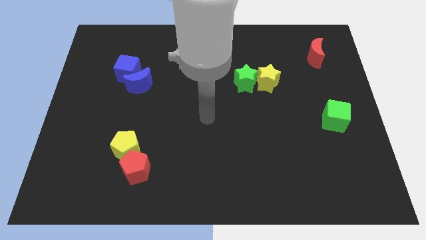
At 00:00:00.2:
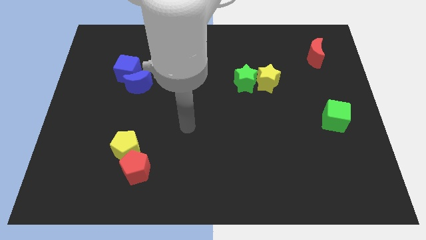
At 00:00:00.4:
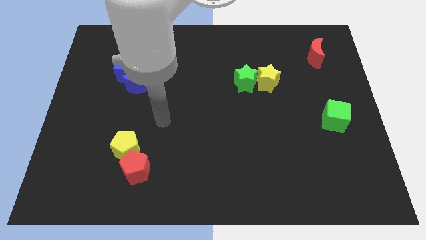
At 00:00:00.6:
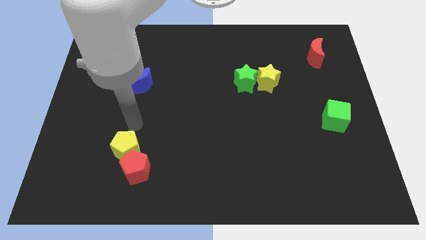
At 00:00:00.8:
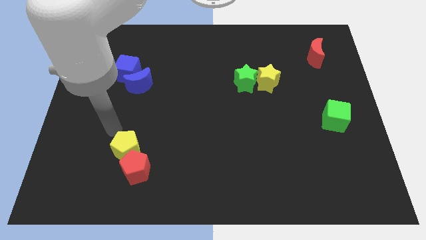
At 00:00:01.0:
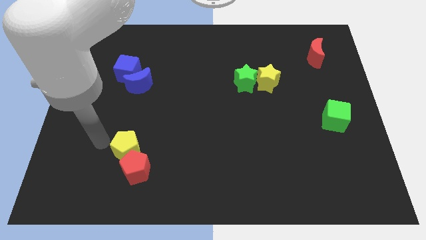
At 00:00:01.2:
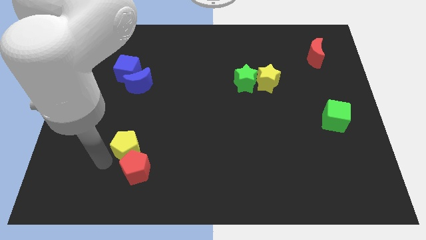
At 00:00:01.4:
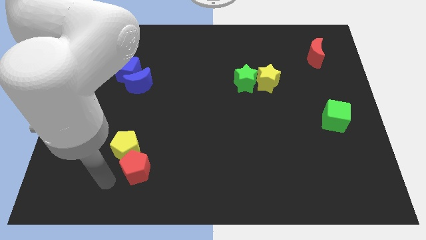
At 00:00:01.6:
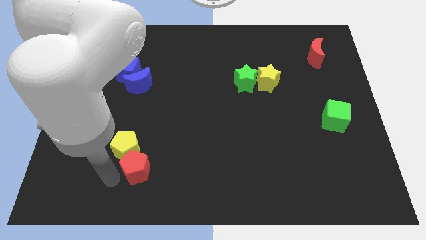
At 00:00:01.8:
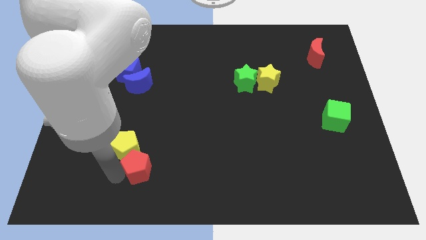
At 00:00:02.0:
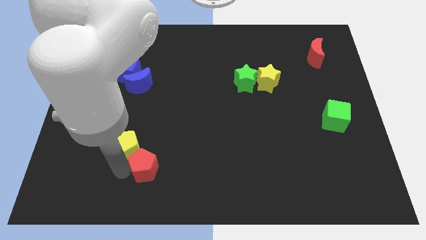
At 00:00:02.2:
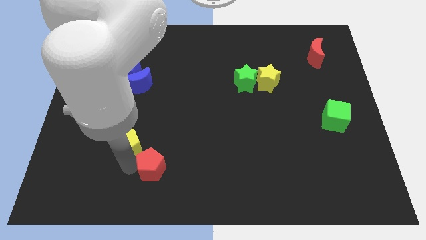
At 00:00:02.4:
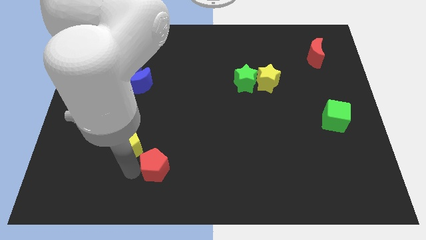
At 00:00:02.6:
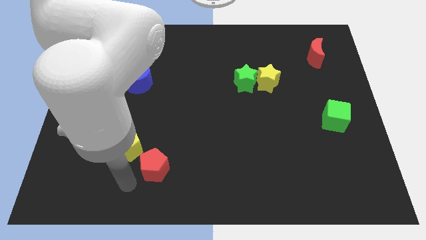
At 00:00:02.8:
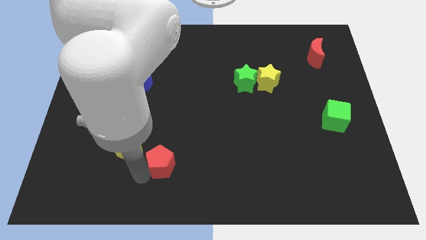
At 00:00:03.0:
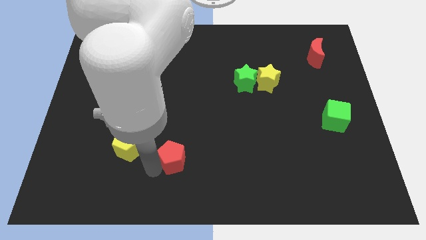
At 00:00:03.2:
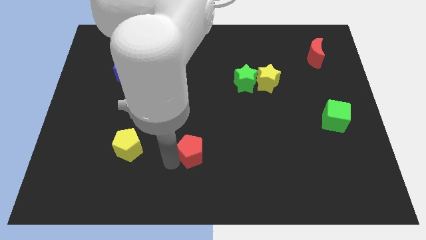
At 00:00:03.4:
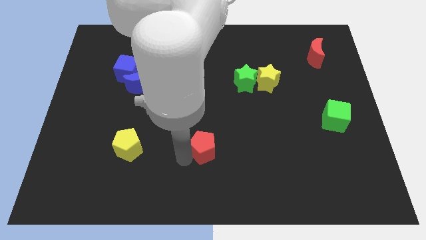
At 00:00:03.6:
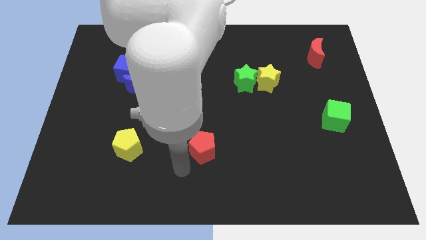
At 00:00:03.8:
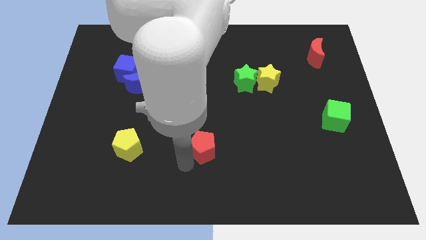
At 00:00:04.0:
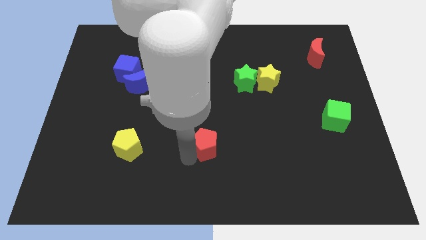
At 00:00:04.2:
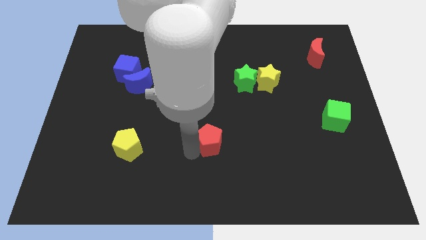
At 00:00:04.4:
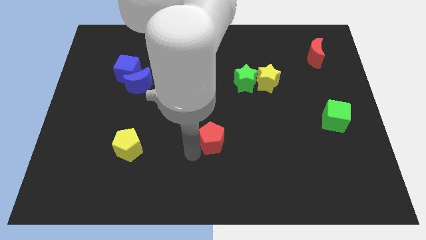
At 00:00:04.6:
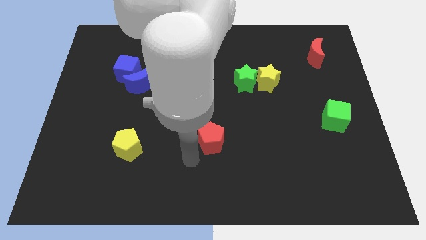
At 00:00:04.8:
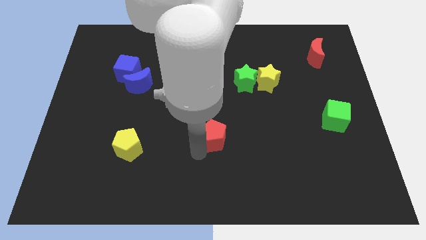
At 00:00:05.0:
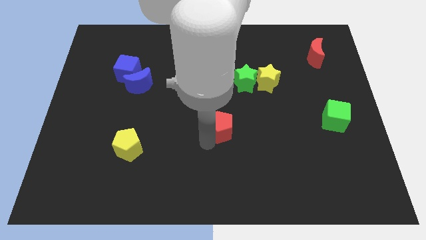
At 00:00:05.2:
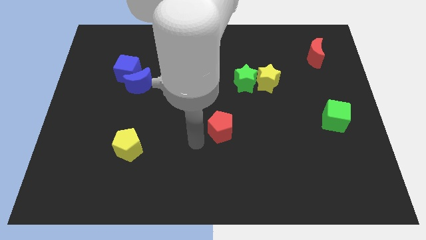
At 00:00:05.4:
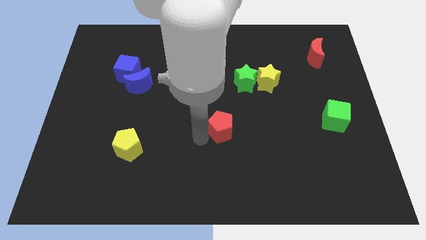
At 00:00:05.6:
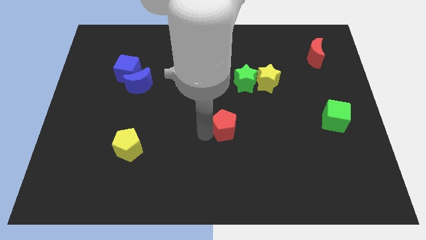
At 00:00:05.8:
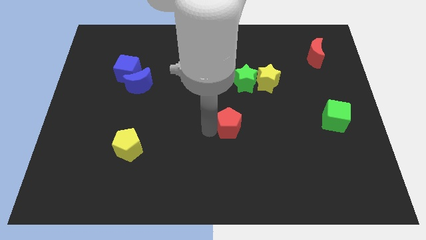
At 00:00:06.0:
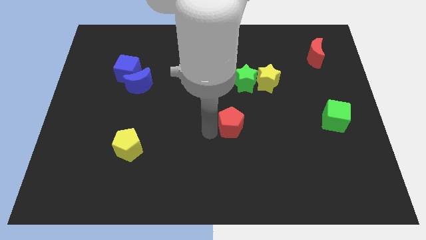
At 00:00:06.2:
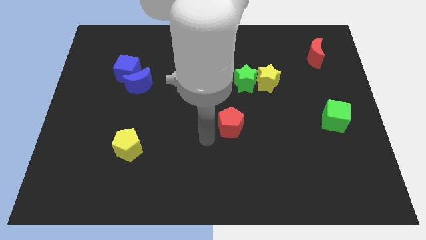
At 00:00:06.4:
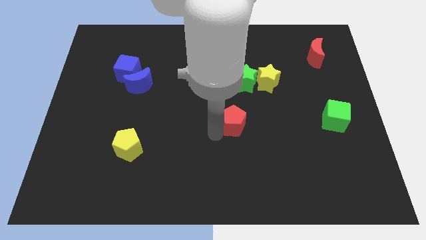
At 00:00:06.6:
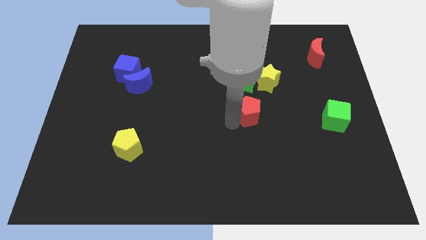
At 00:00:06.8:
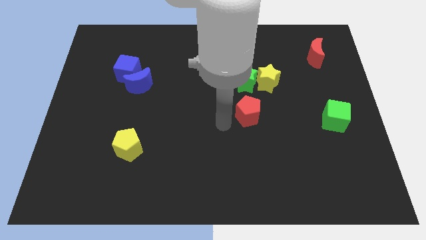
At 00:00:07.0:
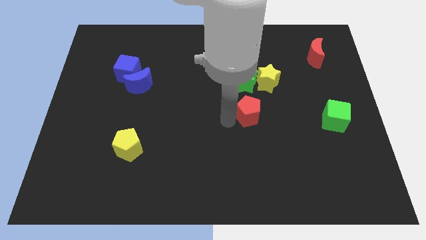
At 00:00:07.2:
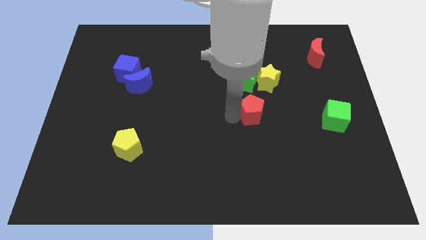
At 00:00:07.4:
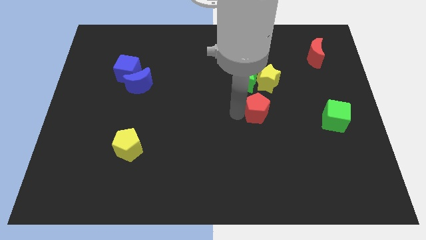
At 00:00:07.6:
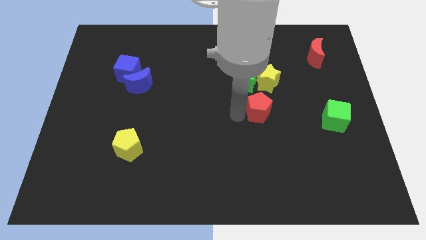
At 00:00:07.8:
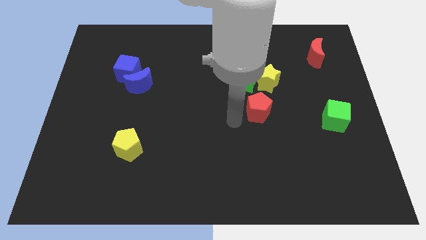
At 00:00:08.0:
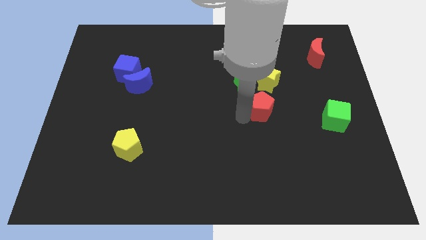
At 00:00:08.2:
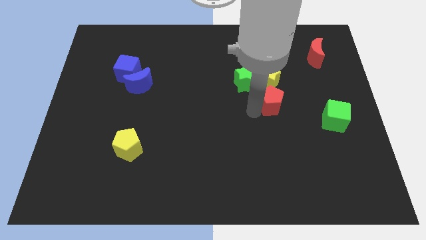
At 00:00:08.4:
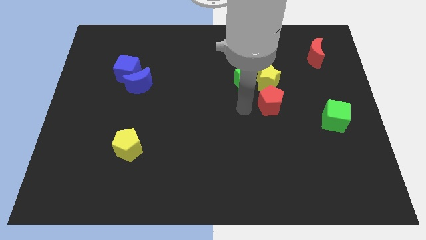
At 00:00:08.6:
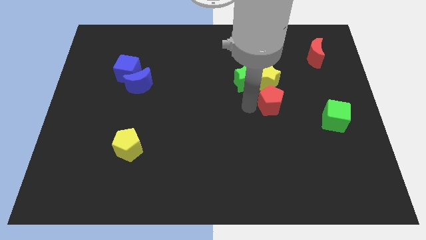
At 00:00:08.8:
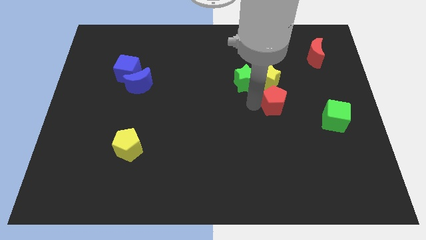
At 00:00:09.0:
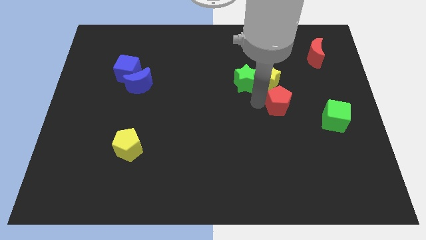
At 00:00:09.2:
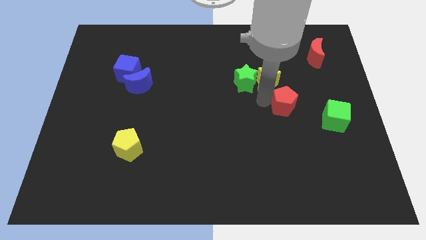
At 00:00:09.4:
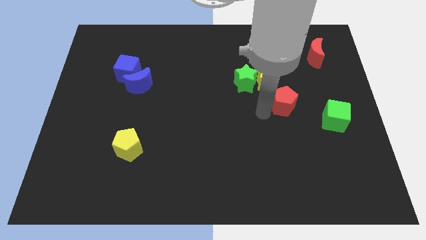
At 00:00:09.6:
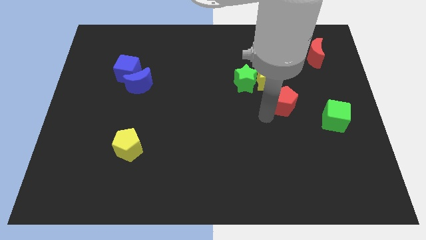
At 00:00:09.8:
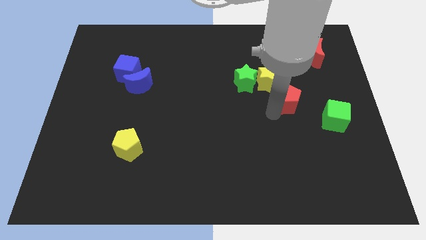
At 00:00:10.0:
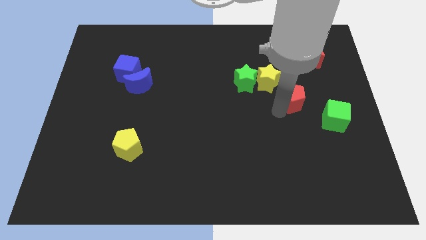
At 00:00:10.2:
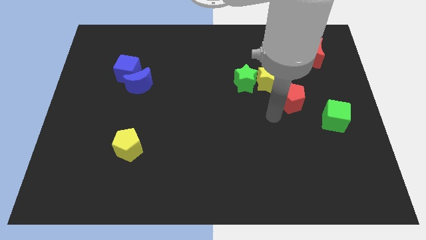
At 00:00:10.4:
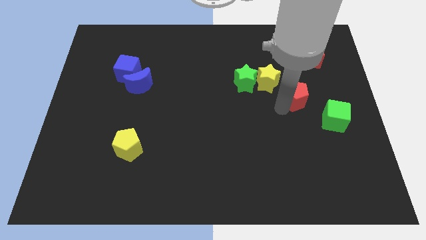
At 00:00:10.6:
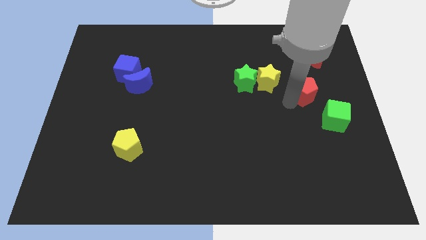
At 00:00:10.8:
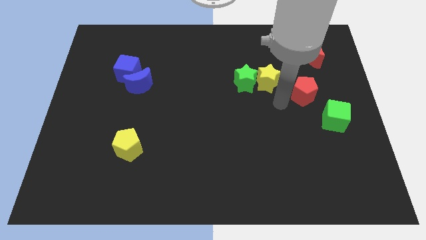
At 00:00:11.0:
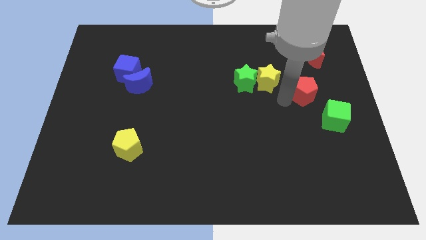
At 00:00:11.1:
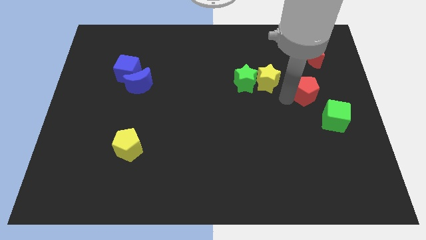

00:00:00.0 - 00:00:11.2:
put the red pentagon to the bottom of the red moon

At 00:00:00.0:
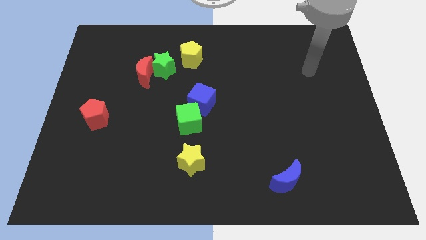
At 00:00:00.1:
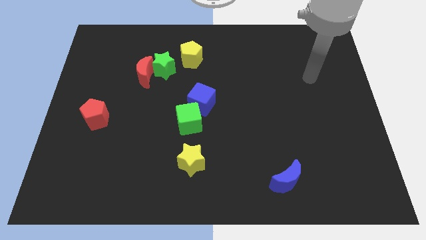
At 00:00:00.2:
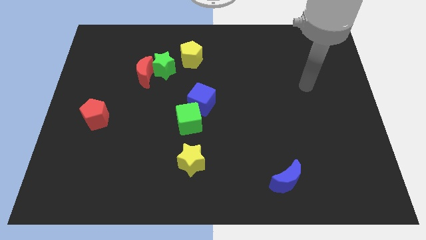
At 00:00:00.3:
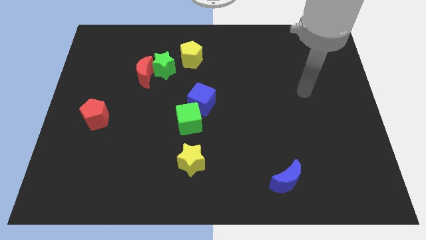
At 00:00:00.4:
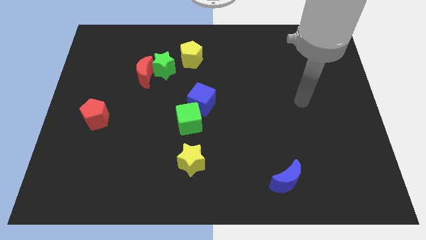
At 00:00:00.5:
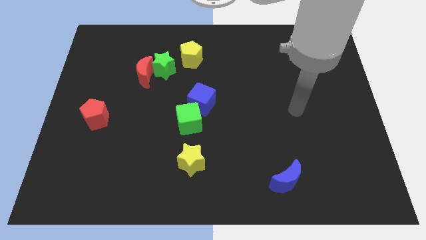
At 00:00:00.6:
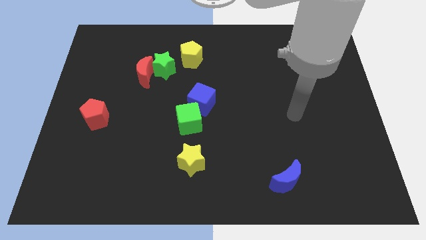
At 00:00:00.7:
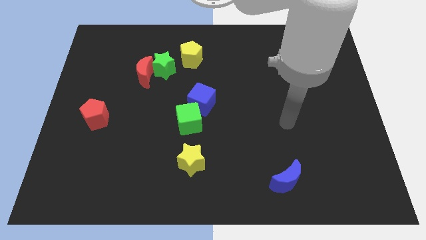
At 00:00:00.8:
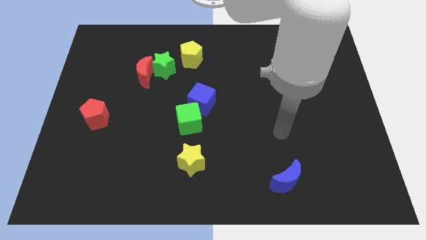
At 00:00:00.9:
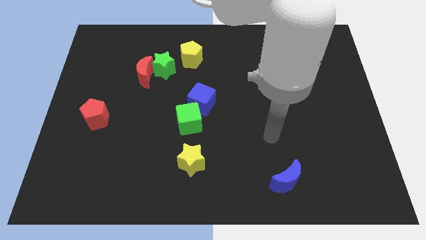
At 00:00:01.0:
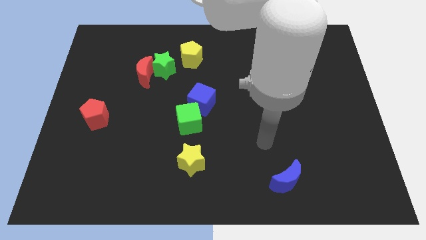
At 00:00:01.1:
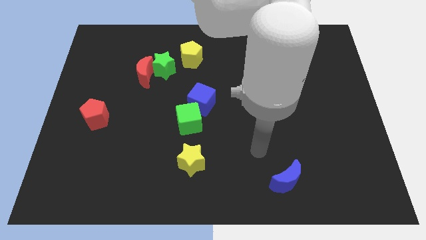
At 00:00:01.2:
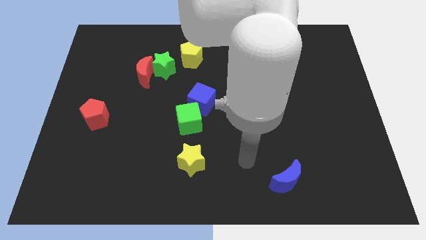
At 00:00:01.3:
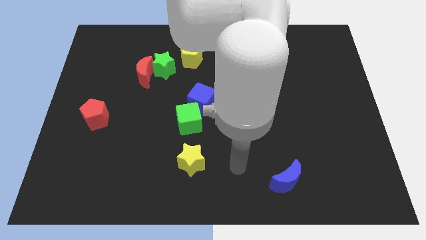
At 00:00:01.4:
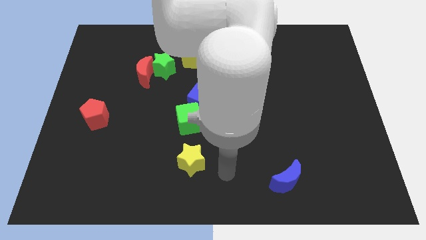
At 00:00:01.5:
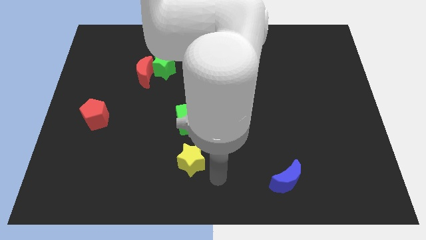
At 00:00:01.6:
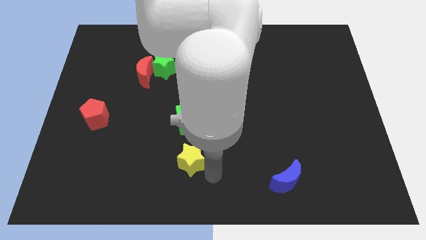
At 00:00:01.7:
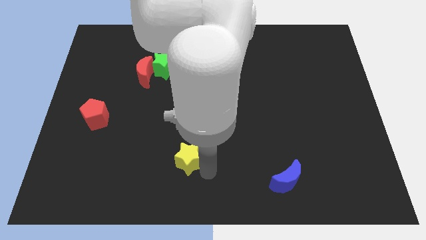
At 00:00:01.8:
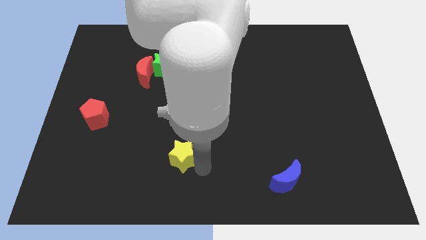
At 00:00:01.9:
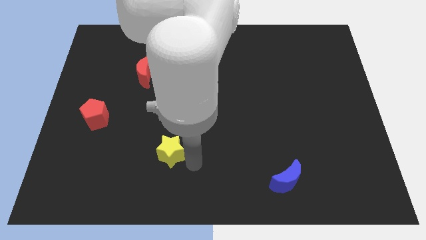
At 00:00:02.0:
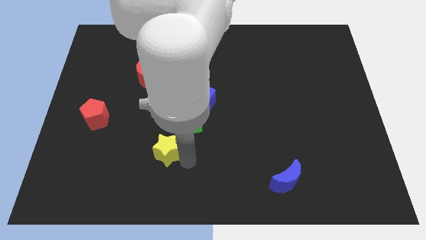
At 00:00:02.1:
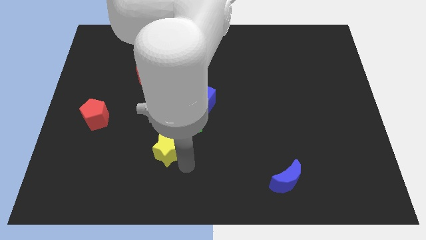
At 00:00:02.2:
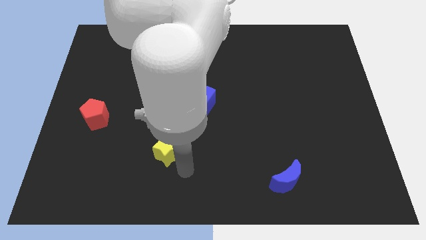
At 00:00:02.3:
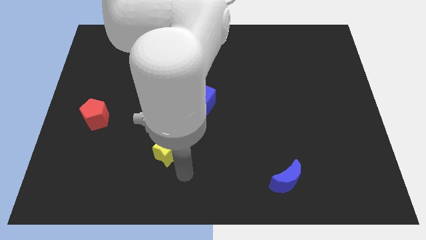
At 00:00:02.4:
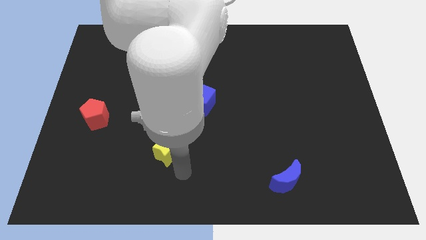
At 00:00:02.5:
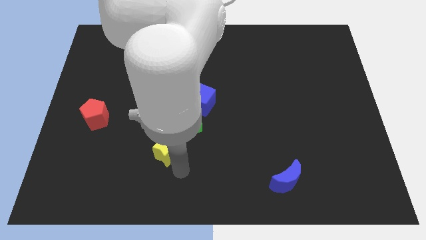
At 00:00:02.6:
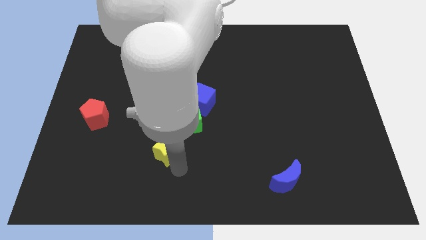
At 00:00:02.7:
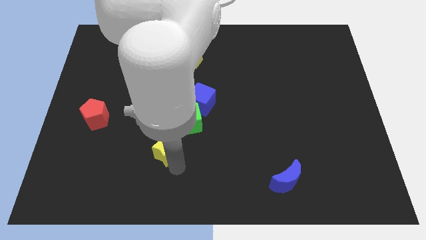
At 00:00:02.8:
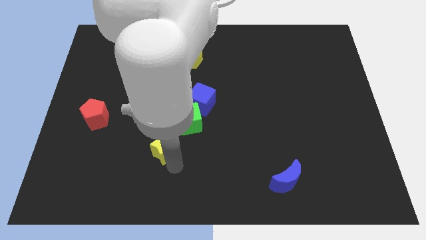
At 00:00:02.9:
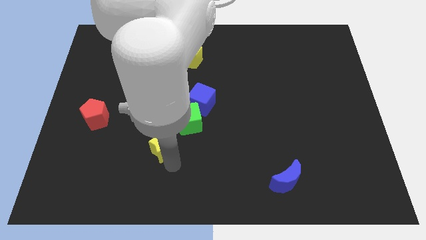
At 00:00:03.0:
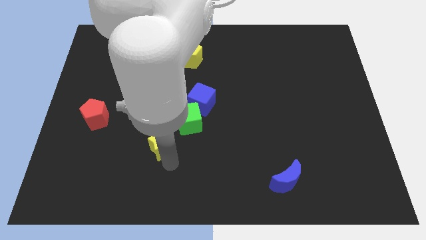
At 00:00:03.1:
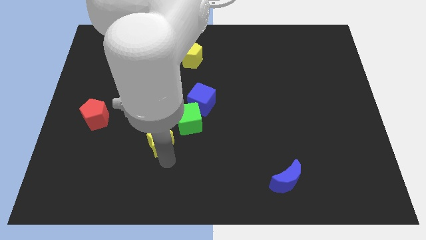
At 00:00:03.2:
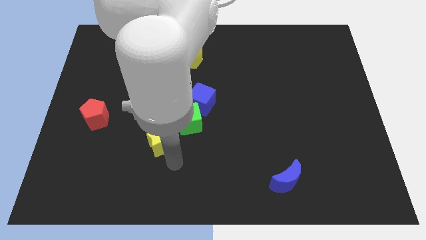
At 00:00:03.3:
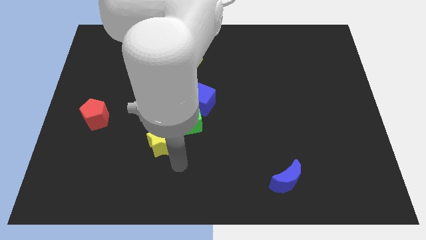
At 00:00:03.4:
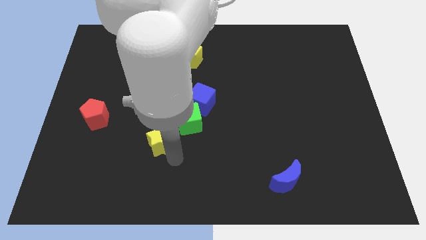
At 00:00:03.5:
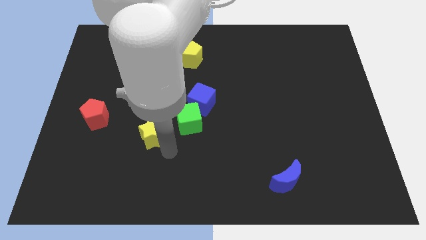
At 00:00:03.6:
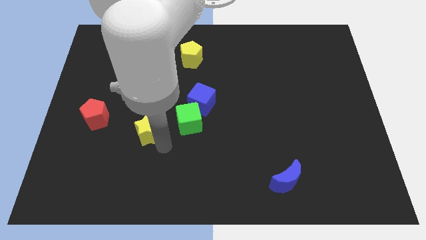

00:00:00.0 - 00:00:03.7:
slide the yellow star just right of the red pentagon
